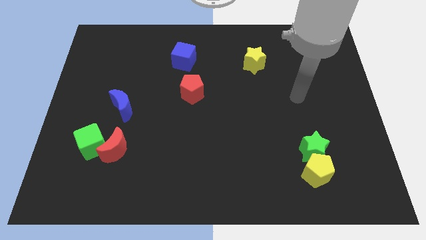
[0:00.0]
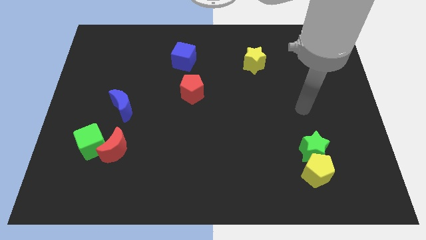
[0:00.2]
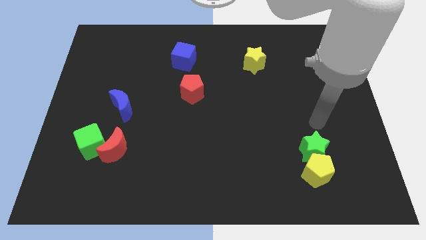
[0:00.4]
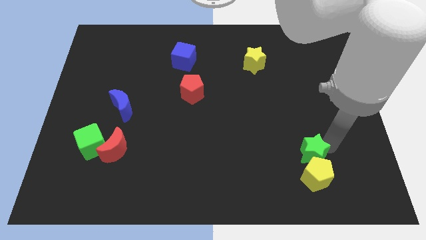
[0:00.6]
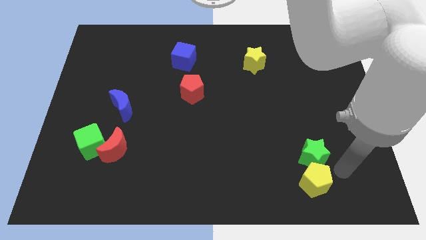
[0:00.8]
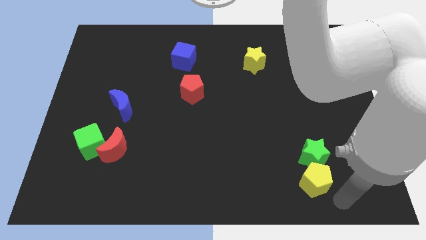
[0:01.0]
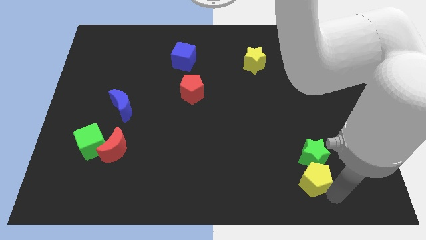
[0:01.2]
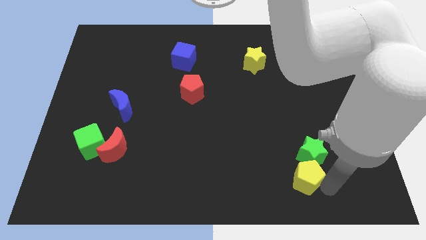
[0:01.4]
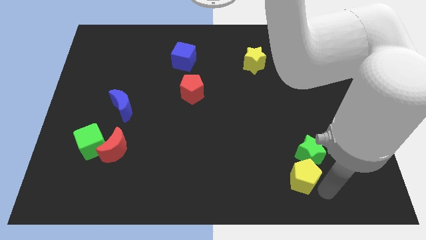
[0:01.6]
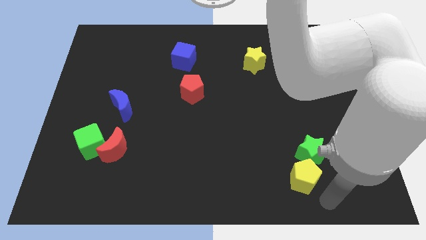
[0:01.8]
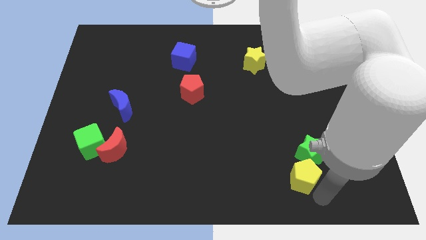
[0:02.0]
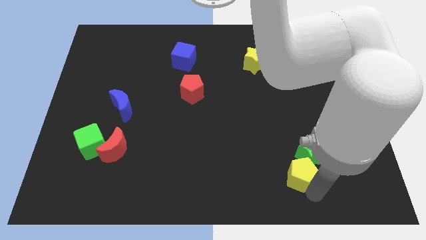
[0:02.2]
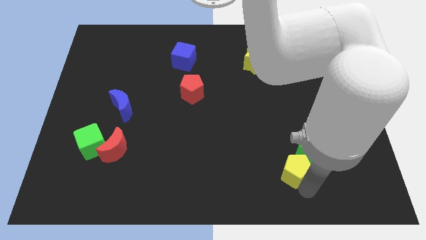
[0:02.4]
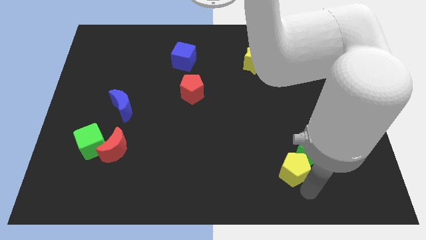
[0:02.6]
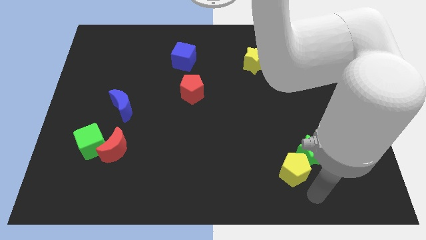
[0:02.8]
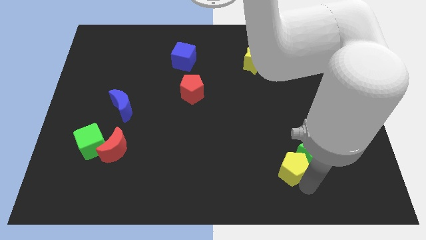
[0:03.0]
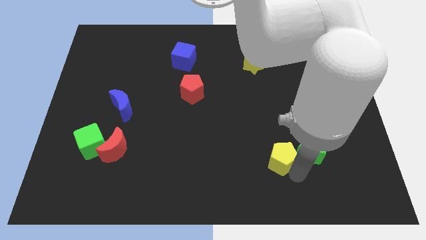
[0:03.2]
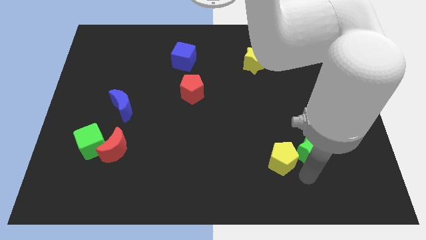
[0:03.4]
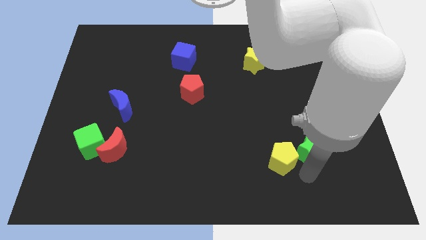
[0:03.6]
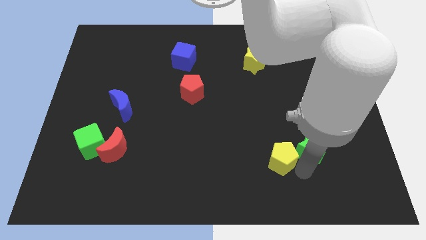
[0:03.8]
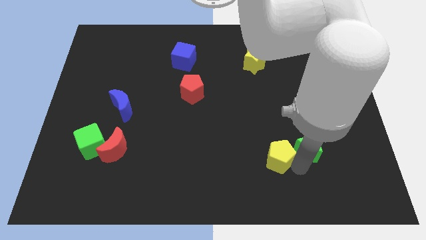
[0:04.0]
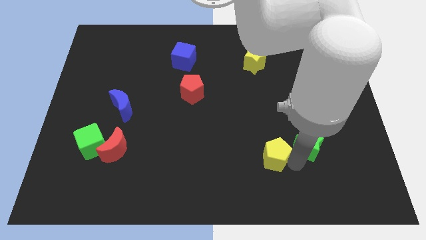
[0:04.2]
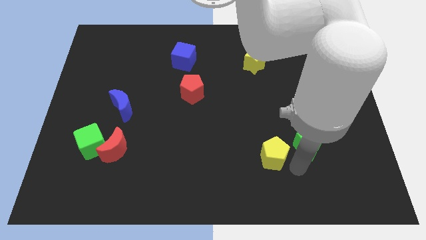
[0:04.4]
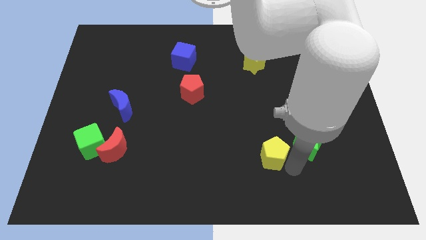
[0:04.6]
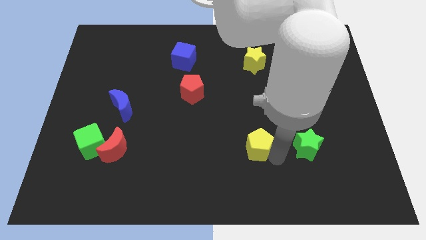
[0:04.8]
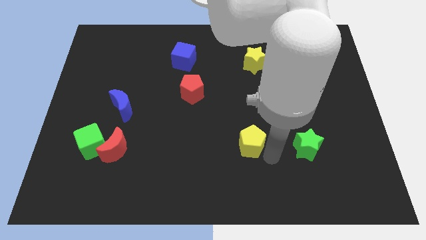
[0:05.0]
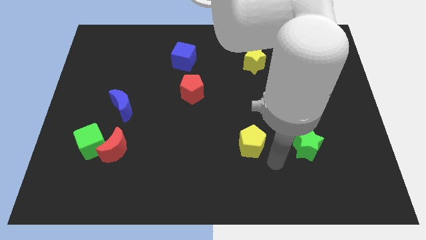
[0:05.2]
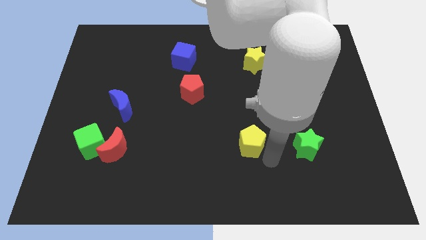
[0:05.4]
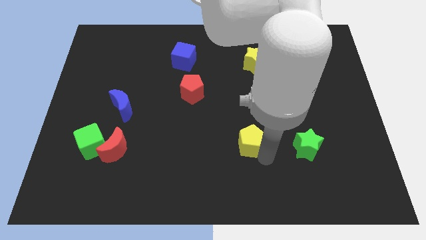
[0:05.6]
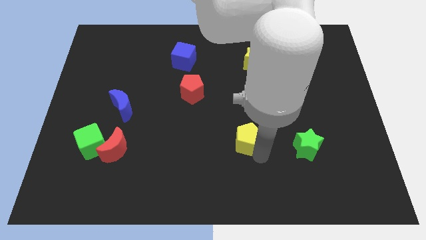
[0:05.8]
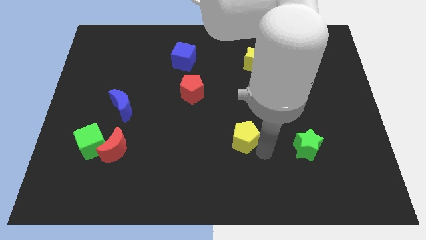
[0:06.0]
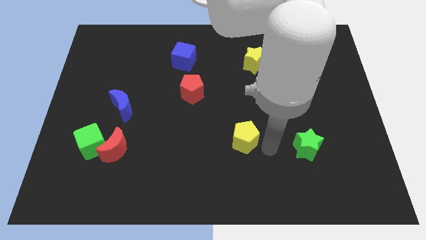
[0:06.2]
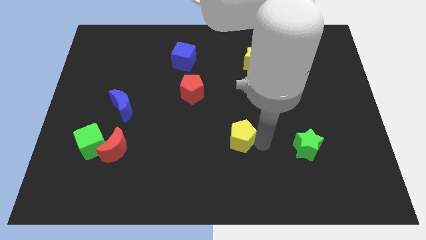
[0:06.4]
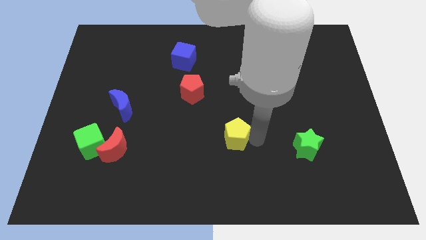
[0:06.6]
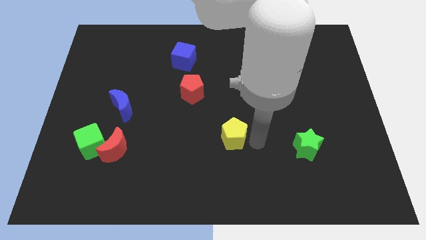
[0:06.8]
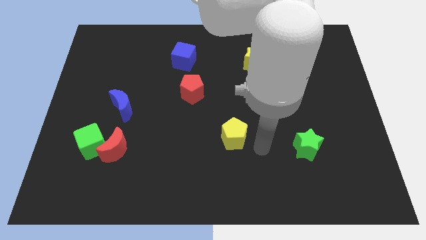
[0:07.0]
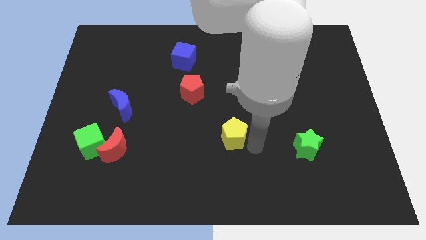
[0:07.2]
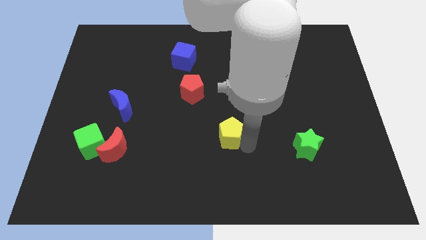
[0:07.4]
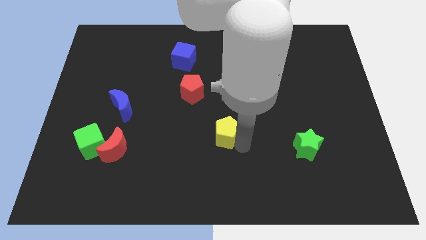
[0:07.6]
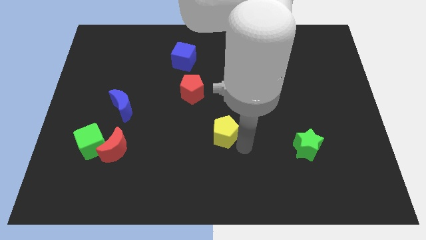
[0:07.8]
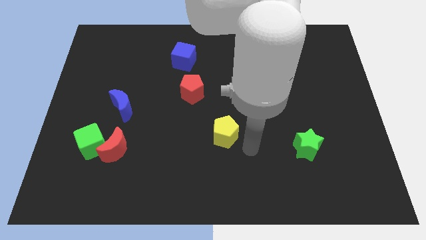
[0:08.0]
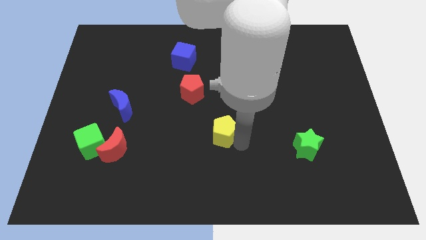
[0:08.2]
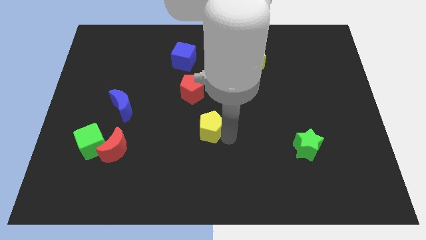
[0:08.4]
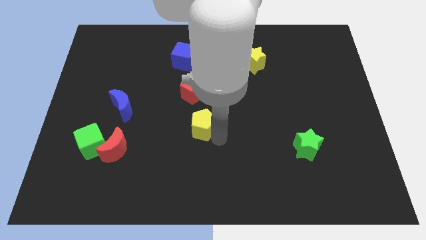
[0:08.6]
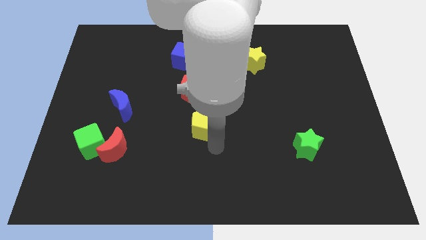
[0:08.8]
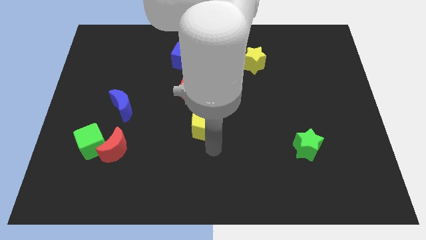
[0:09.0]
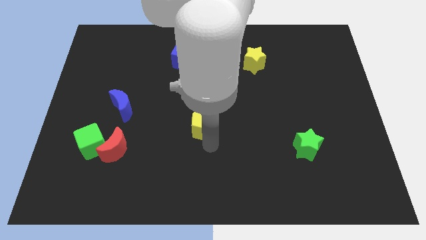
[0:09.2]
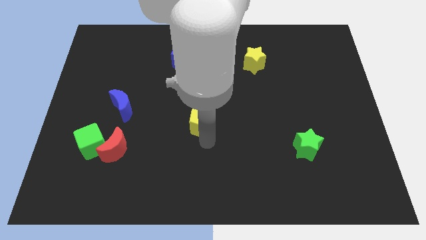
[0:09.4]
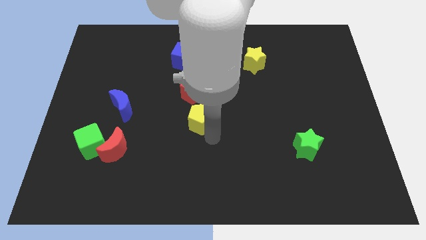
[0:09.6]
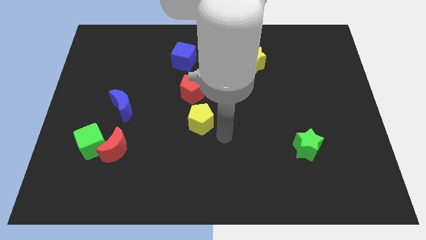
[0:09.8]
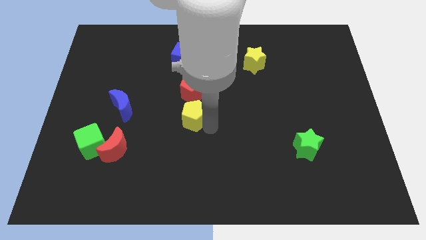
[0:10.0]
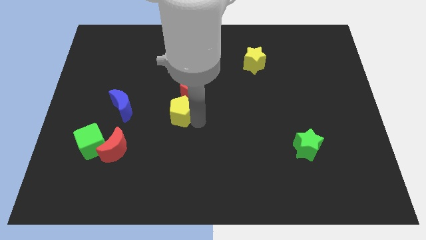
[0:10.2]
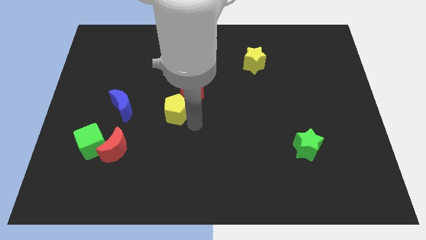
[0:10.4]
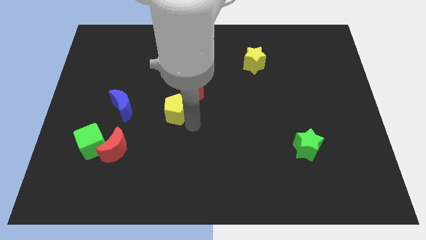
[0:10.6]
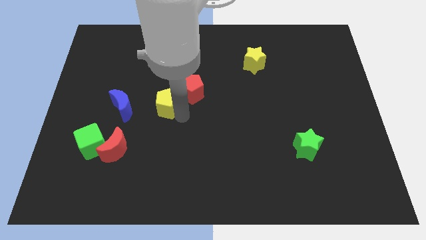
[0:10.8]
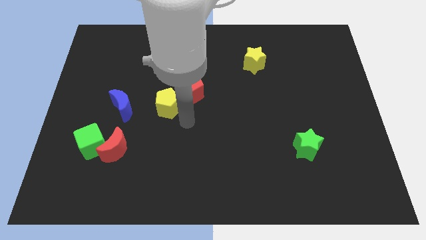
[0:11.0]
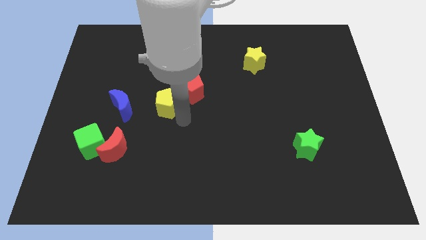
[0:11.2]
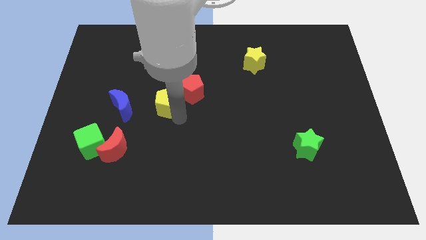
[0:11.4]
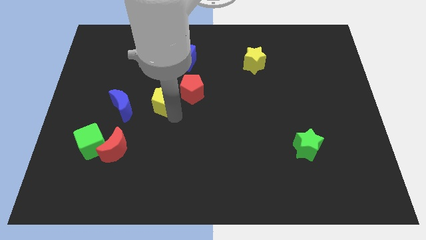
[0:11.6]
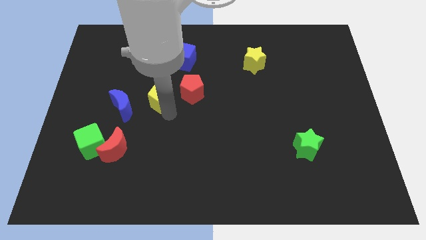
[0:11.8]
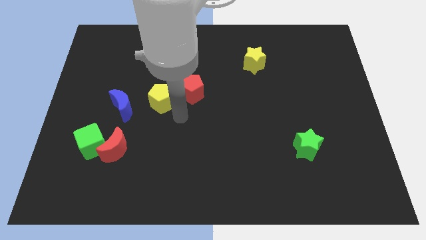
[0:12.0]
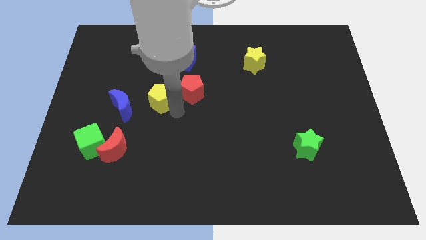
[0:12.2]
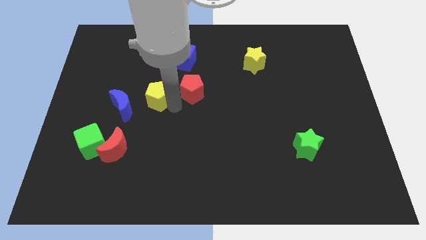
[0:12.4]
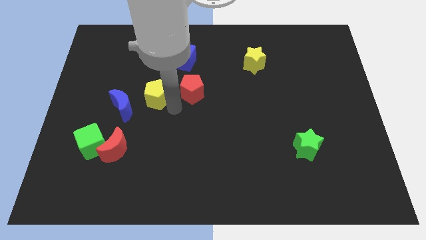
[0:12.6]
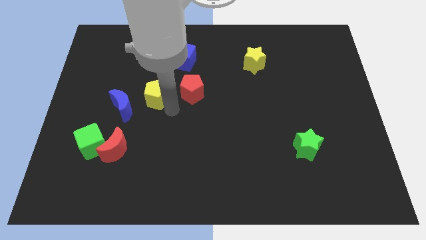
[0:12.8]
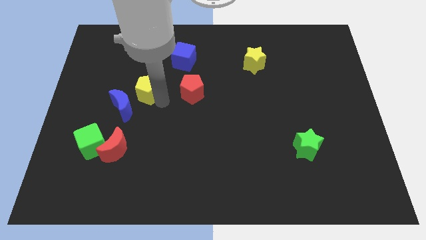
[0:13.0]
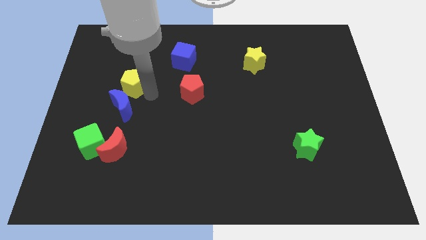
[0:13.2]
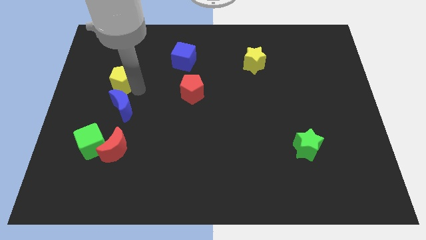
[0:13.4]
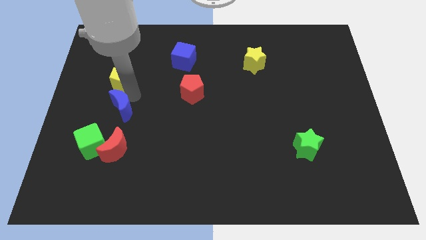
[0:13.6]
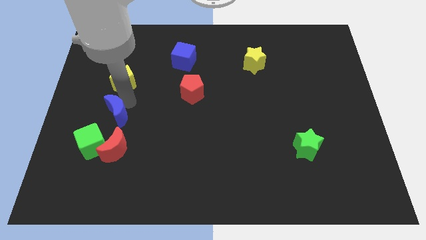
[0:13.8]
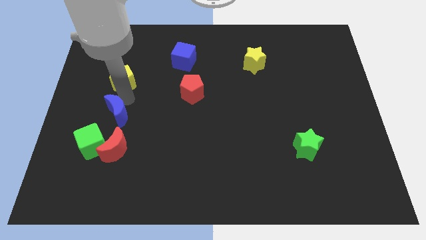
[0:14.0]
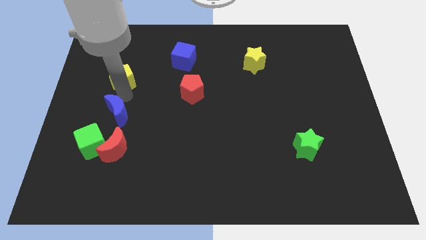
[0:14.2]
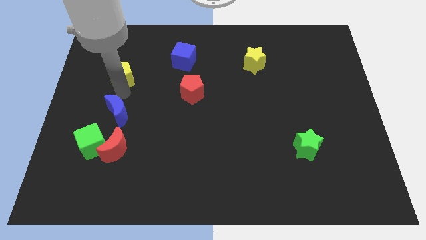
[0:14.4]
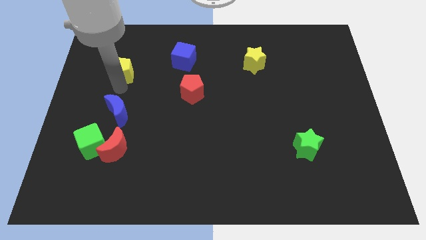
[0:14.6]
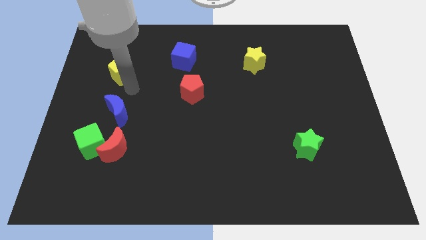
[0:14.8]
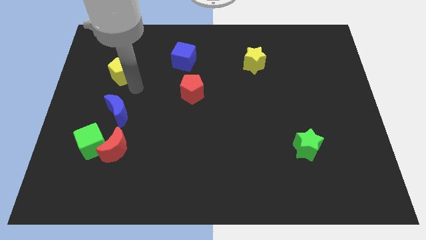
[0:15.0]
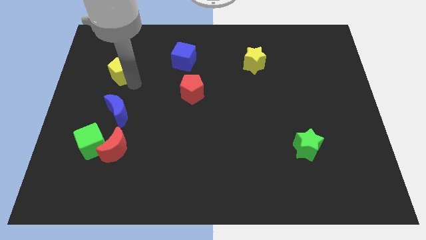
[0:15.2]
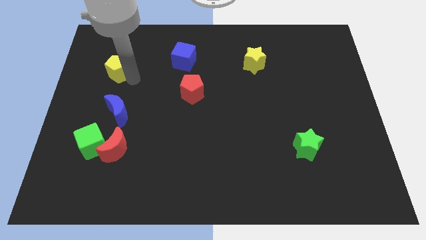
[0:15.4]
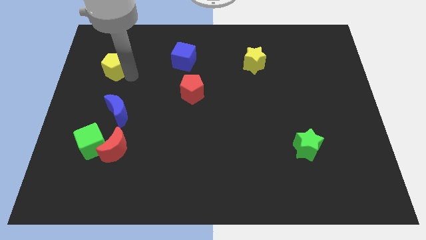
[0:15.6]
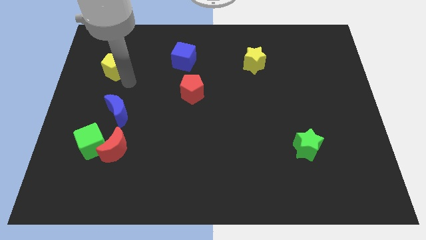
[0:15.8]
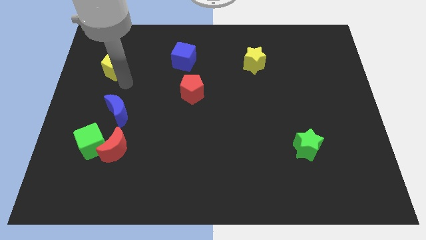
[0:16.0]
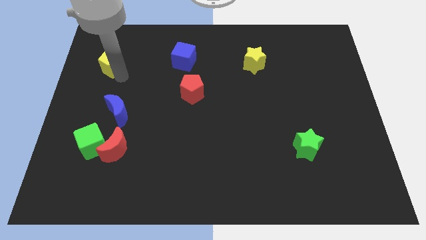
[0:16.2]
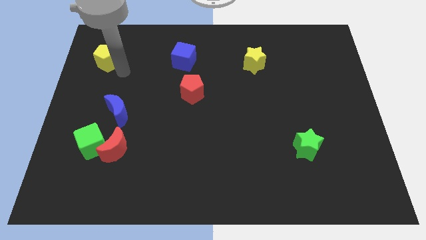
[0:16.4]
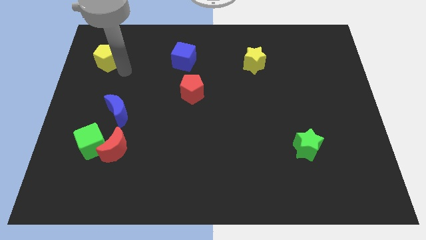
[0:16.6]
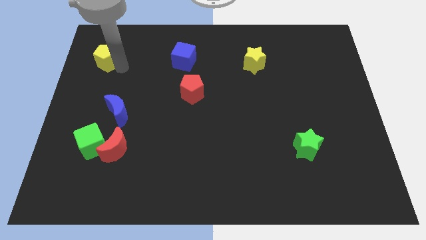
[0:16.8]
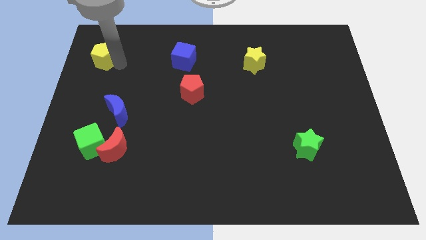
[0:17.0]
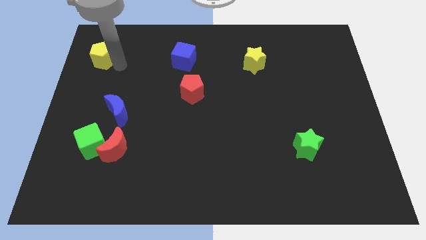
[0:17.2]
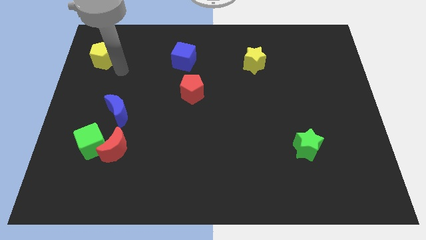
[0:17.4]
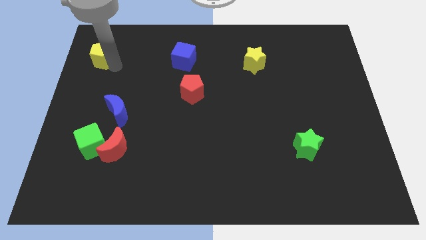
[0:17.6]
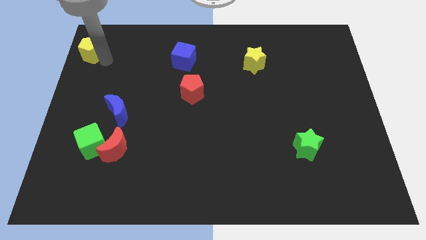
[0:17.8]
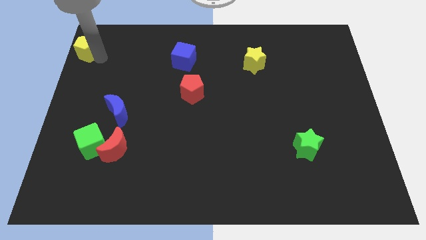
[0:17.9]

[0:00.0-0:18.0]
move the yellow pentagon to the top left
